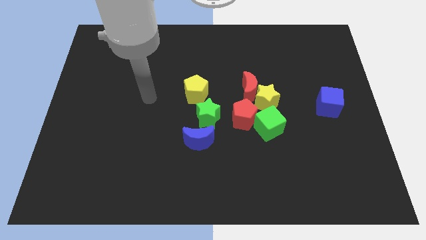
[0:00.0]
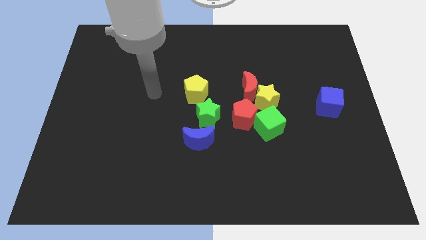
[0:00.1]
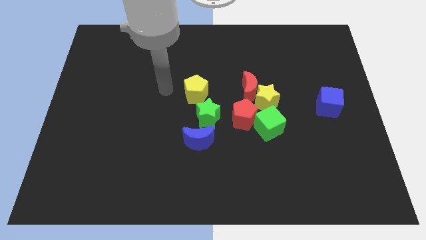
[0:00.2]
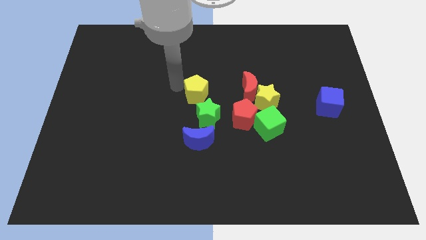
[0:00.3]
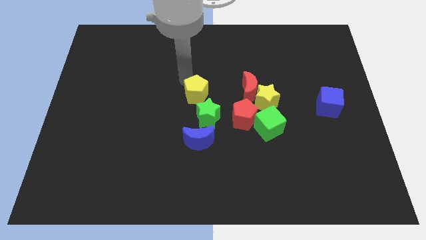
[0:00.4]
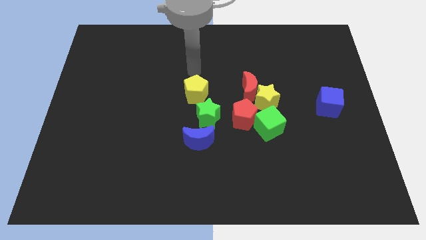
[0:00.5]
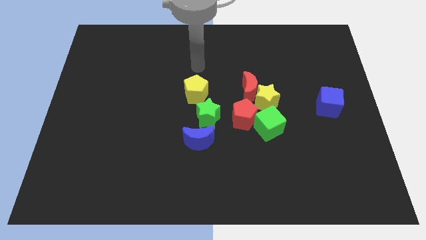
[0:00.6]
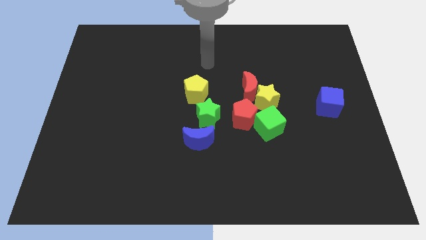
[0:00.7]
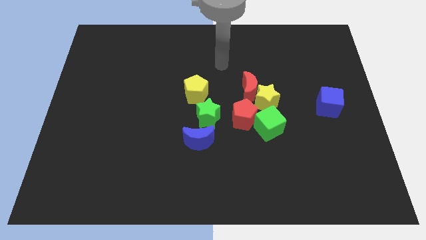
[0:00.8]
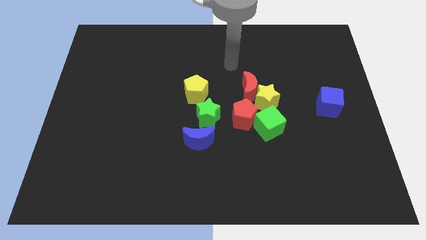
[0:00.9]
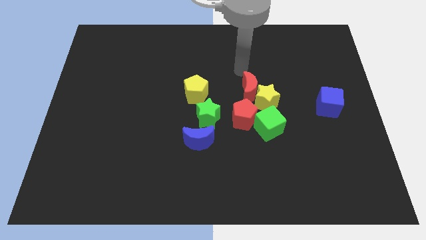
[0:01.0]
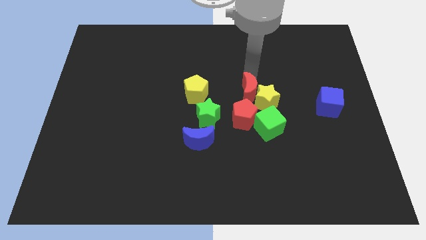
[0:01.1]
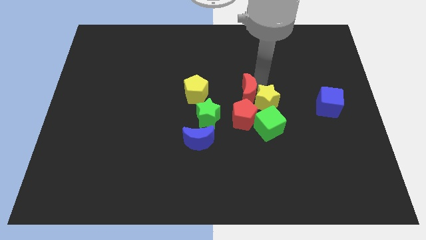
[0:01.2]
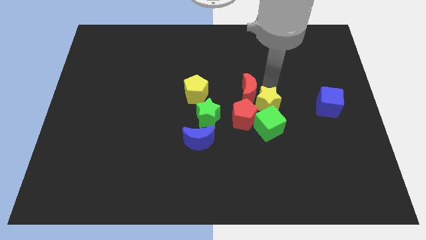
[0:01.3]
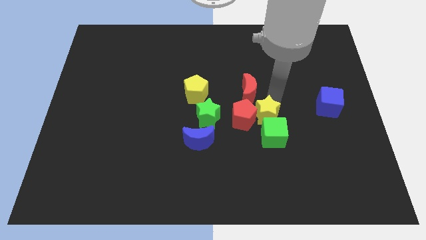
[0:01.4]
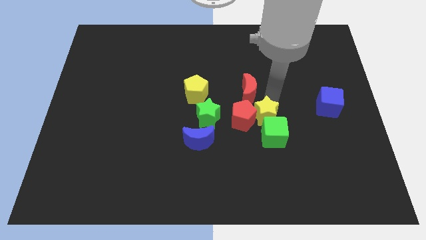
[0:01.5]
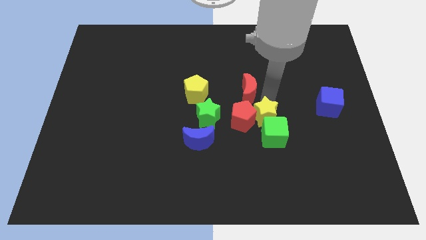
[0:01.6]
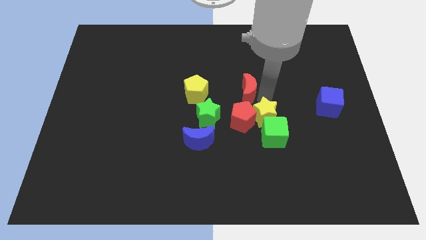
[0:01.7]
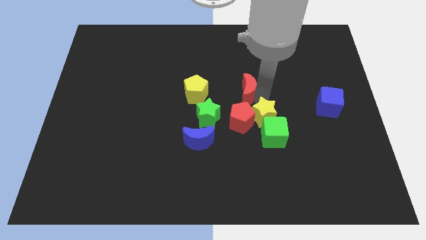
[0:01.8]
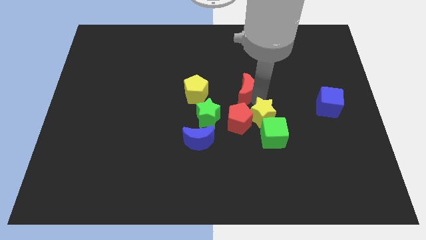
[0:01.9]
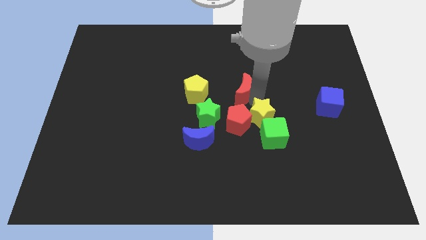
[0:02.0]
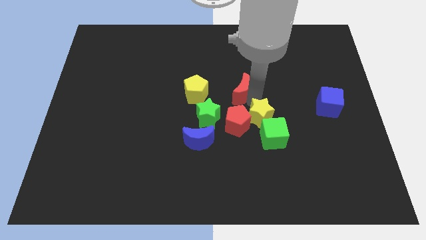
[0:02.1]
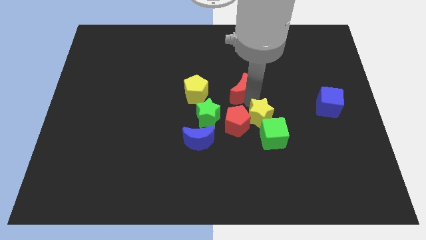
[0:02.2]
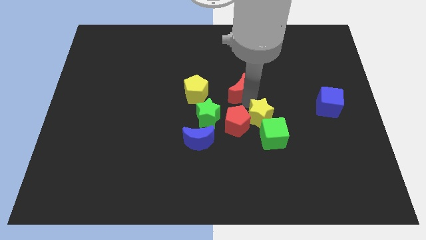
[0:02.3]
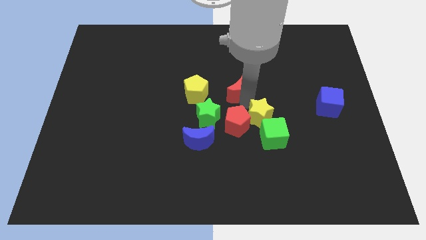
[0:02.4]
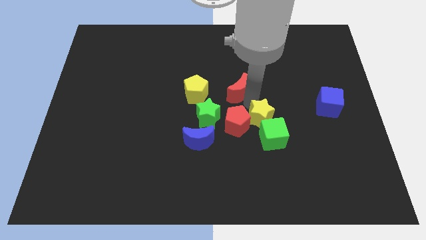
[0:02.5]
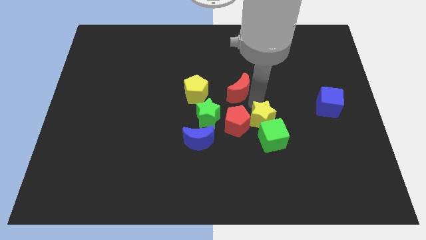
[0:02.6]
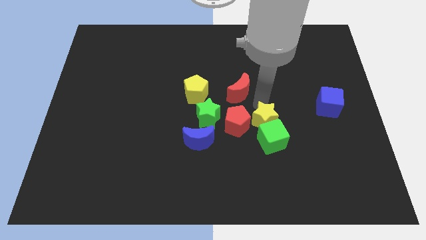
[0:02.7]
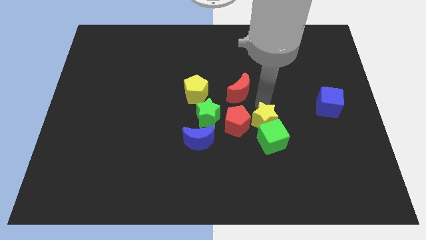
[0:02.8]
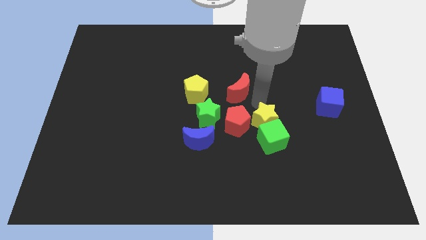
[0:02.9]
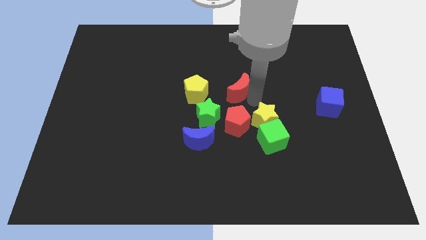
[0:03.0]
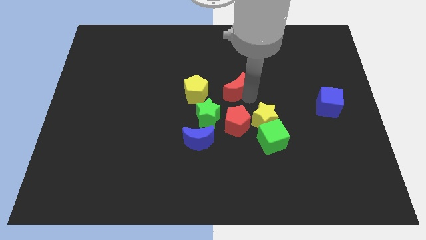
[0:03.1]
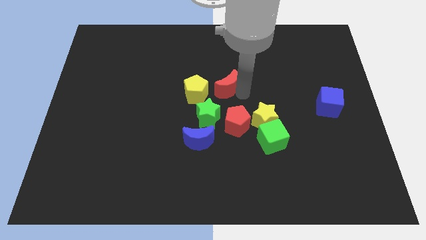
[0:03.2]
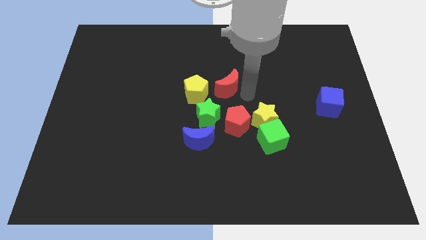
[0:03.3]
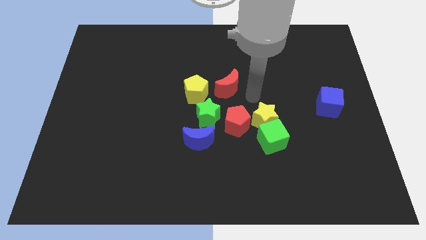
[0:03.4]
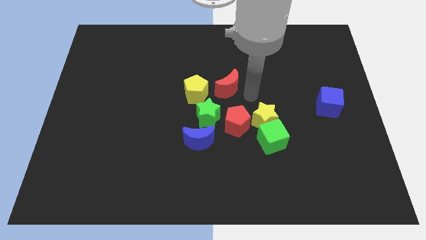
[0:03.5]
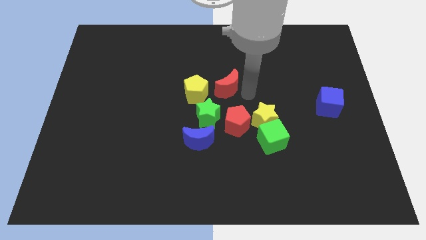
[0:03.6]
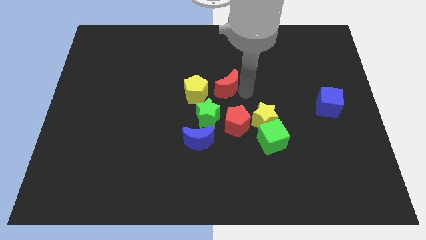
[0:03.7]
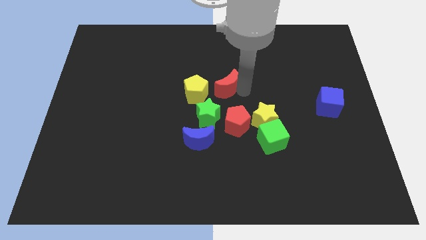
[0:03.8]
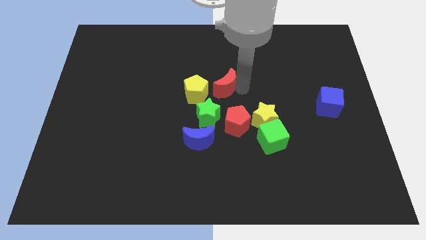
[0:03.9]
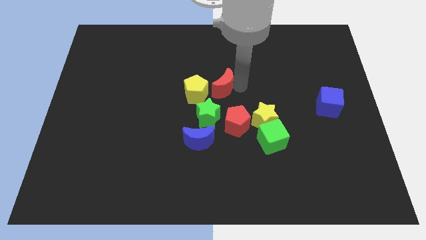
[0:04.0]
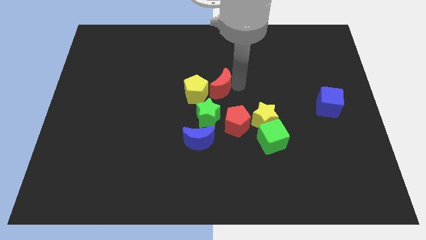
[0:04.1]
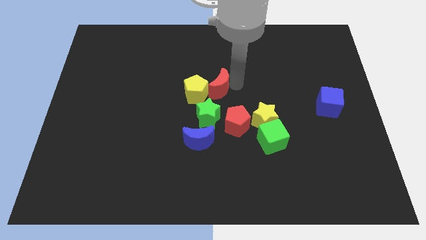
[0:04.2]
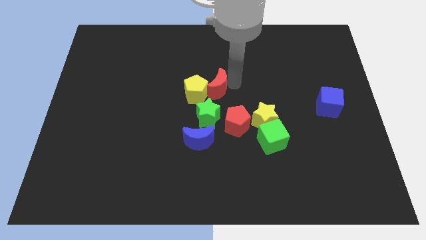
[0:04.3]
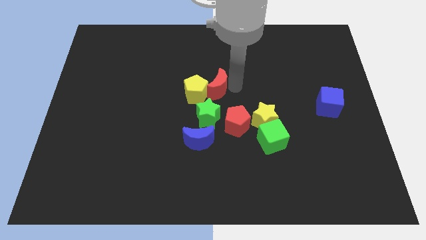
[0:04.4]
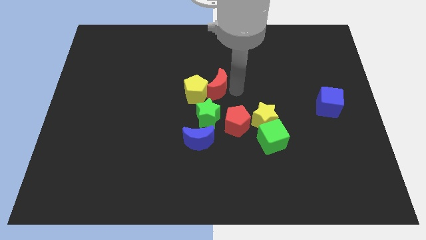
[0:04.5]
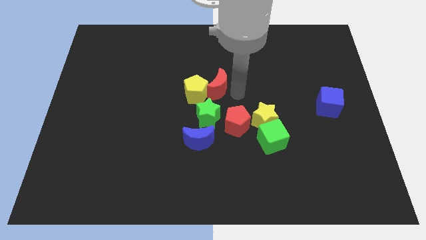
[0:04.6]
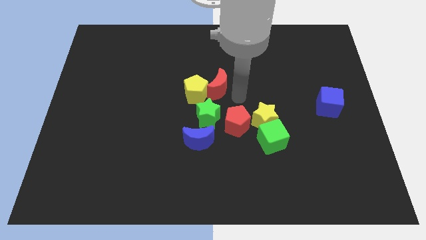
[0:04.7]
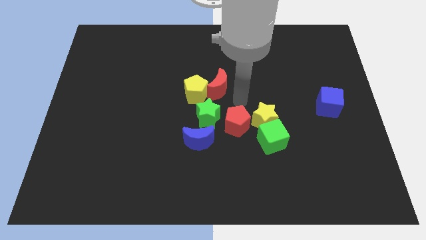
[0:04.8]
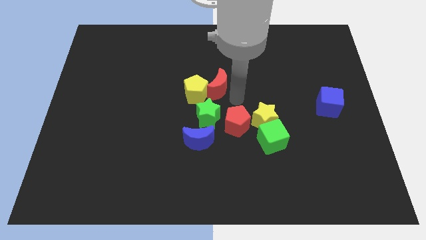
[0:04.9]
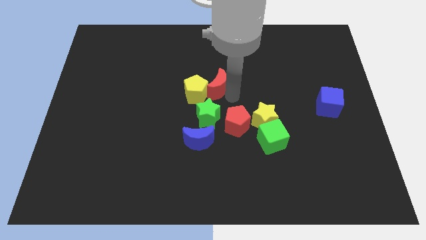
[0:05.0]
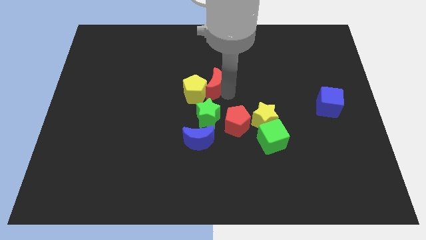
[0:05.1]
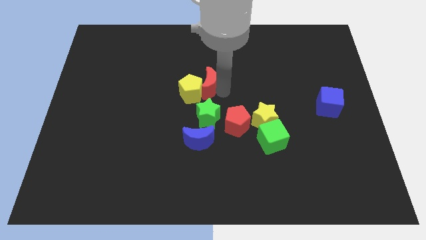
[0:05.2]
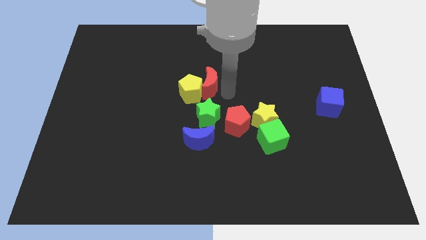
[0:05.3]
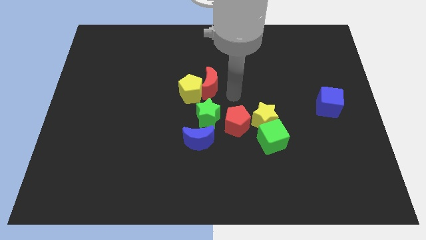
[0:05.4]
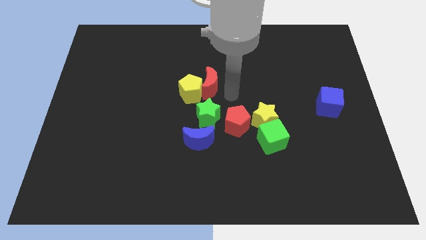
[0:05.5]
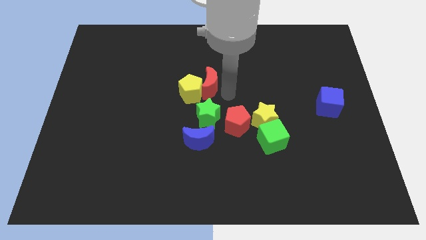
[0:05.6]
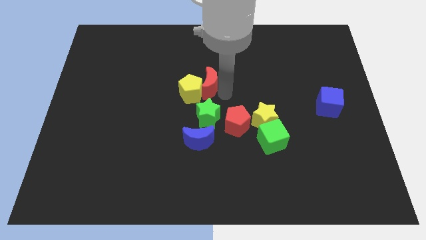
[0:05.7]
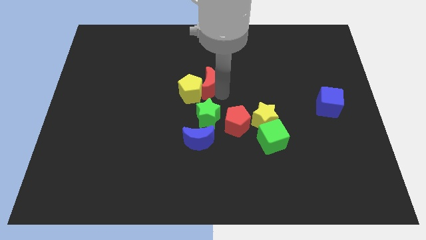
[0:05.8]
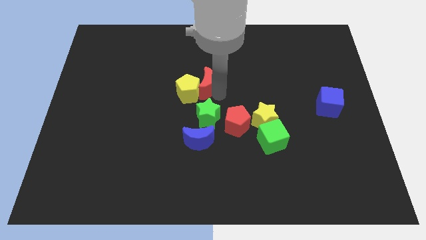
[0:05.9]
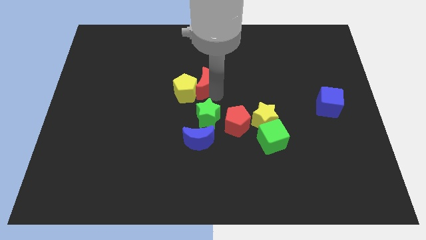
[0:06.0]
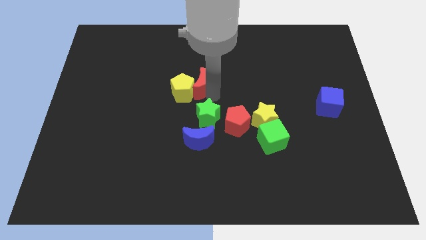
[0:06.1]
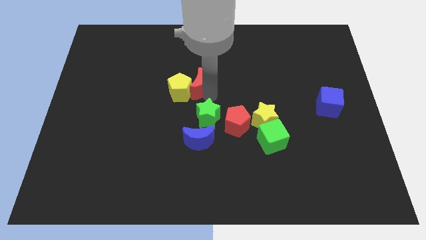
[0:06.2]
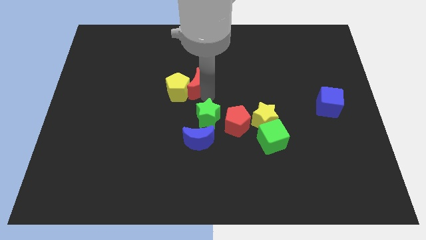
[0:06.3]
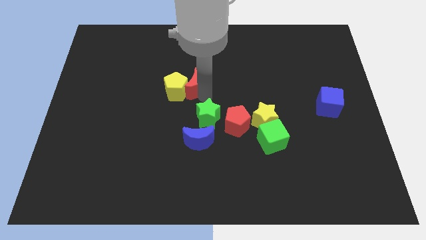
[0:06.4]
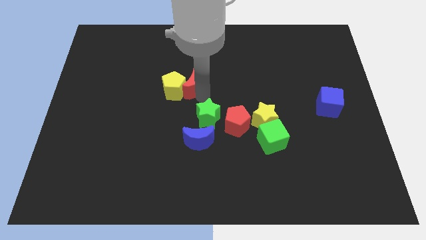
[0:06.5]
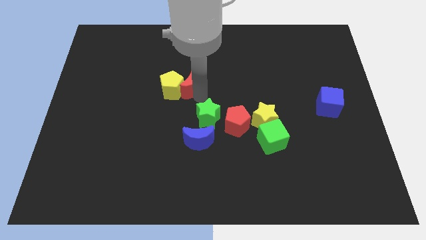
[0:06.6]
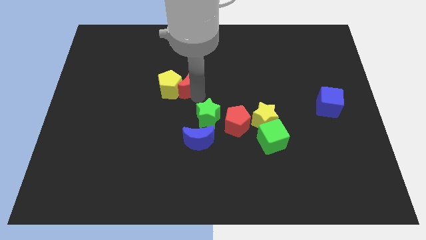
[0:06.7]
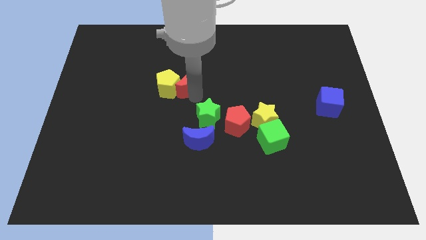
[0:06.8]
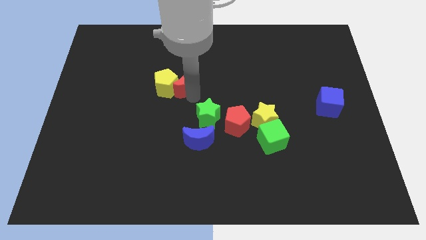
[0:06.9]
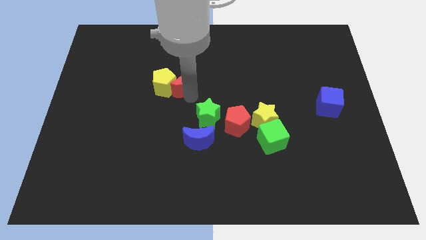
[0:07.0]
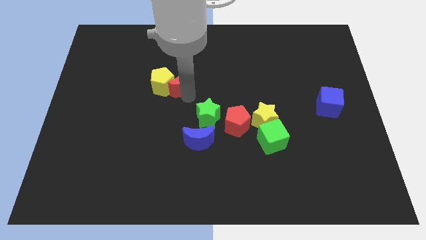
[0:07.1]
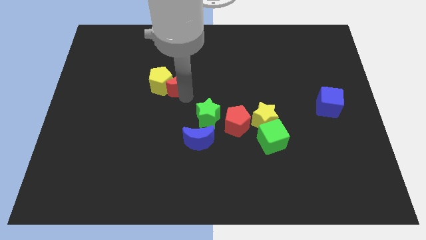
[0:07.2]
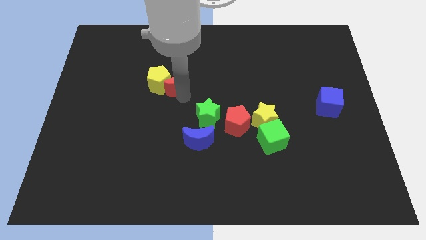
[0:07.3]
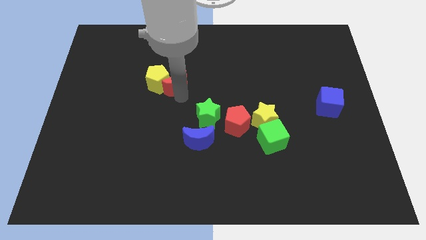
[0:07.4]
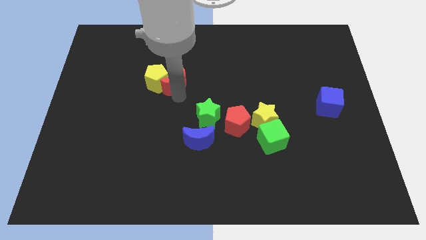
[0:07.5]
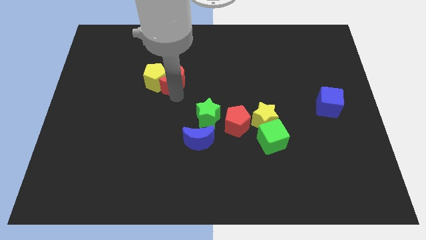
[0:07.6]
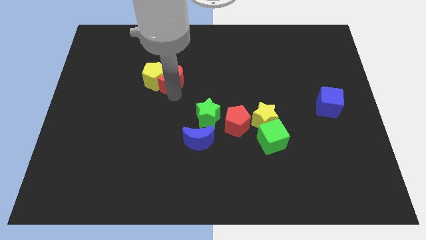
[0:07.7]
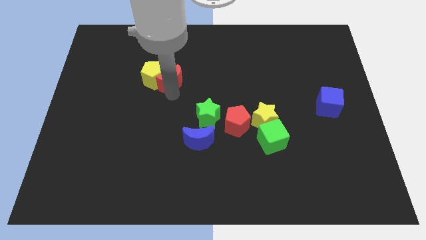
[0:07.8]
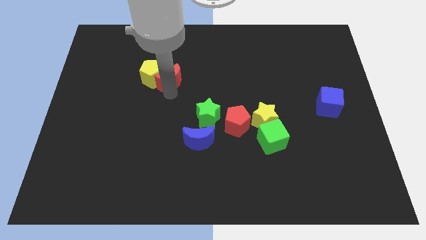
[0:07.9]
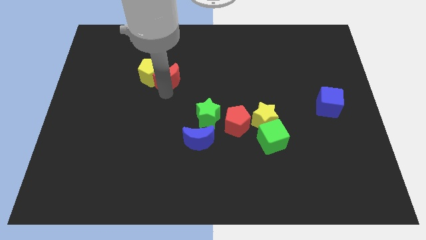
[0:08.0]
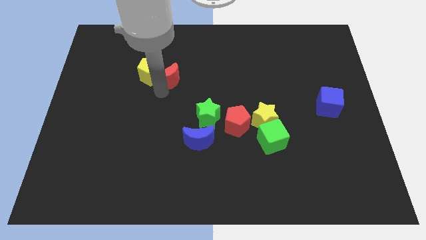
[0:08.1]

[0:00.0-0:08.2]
push the red moon to the left
